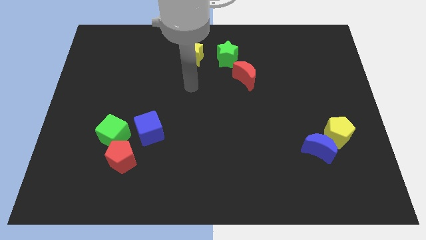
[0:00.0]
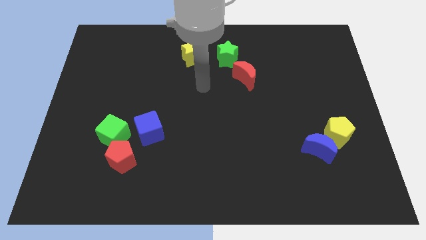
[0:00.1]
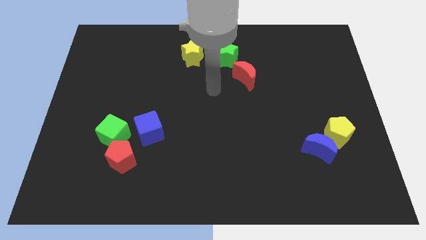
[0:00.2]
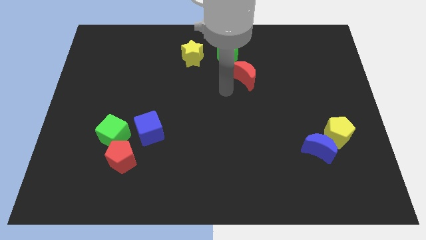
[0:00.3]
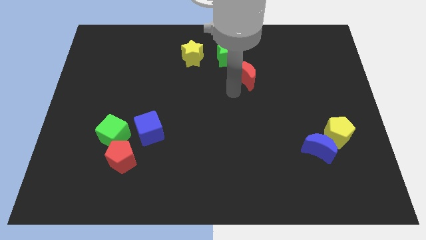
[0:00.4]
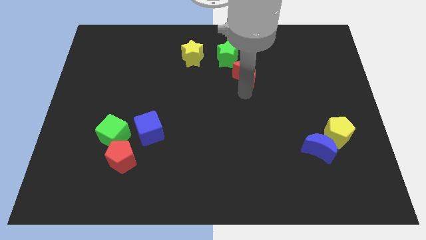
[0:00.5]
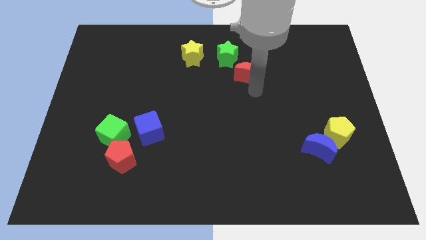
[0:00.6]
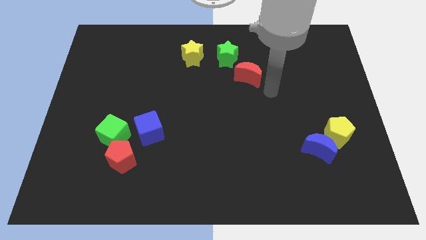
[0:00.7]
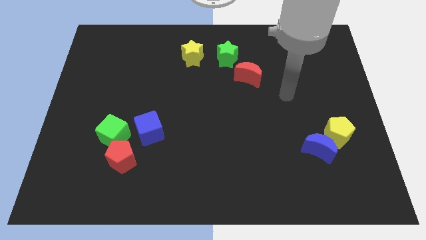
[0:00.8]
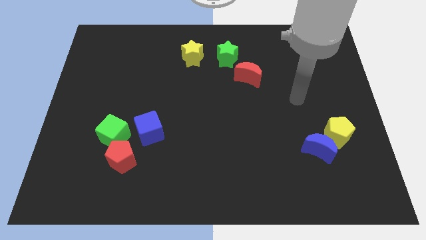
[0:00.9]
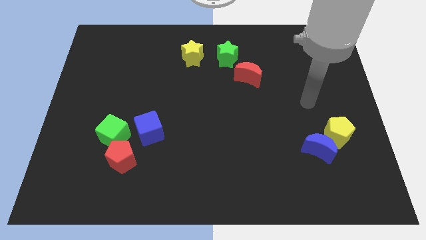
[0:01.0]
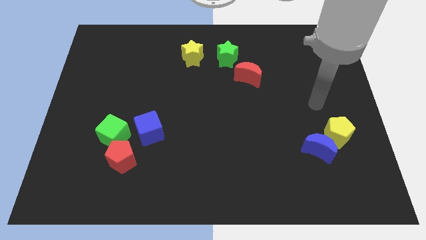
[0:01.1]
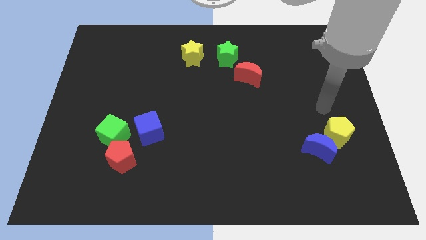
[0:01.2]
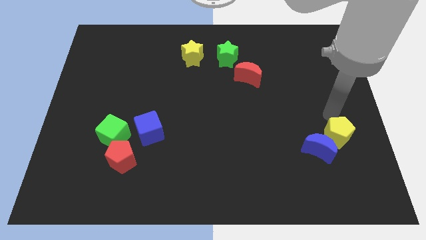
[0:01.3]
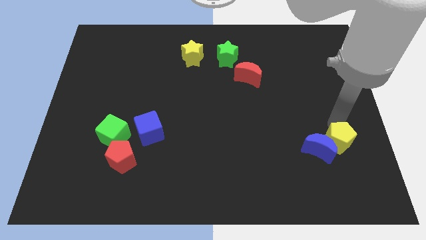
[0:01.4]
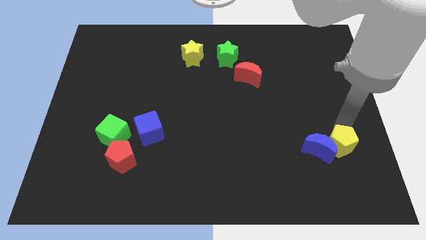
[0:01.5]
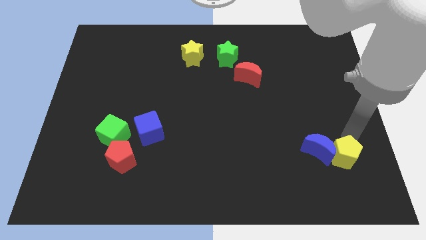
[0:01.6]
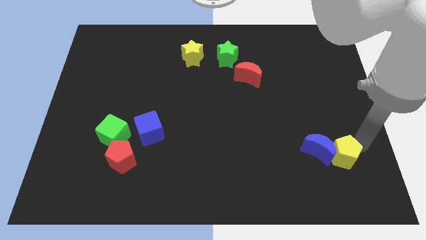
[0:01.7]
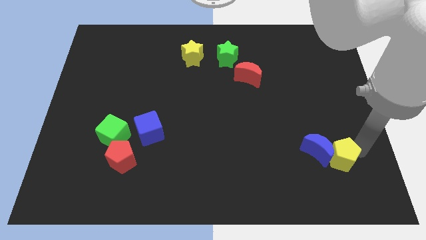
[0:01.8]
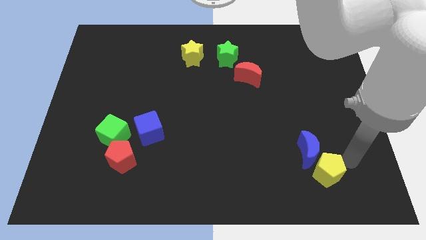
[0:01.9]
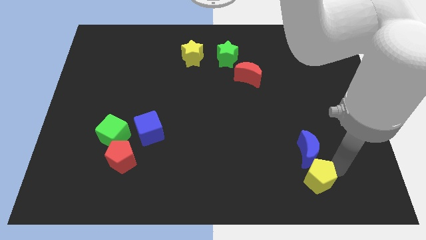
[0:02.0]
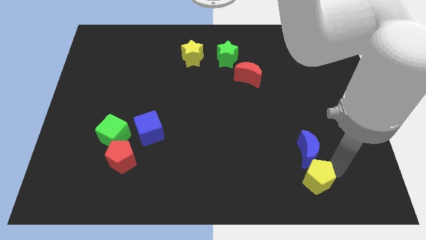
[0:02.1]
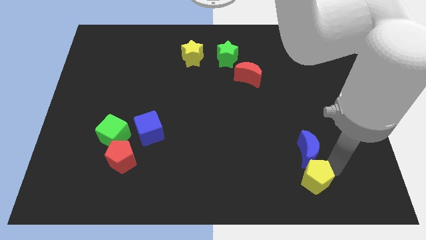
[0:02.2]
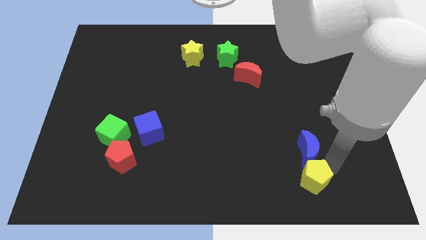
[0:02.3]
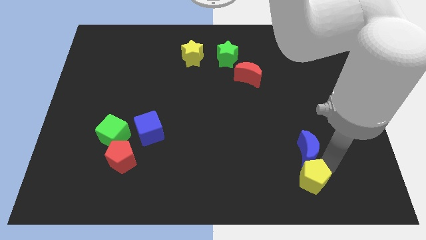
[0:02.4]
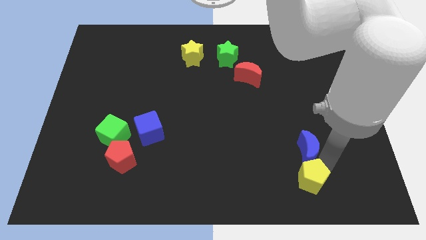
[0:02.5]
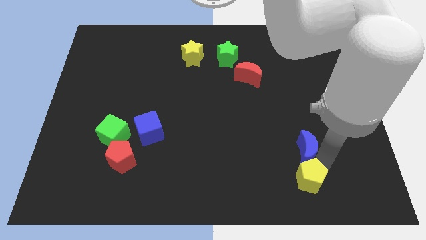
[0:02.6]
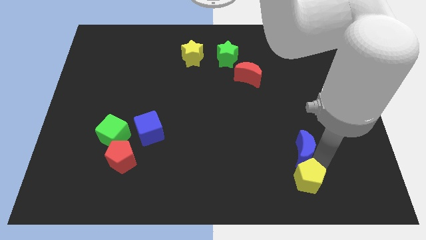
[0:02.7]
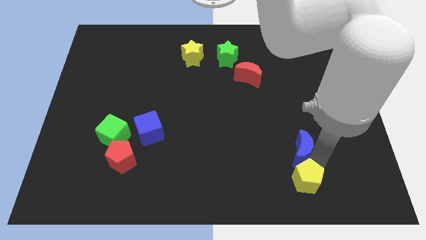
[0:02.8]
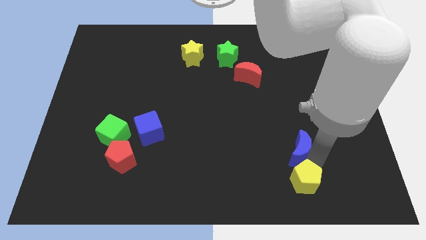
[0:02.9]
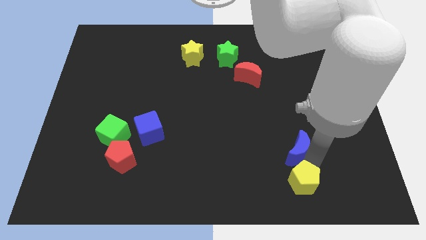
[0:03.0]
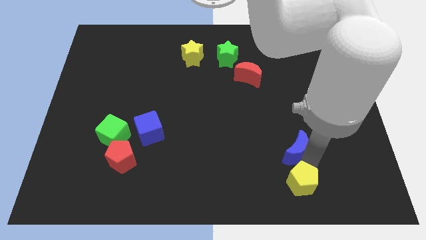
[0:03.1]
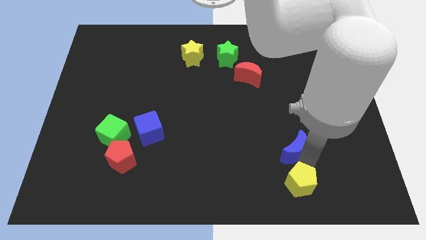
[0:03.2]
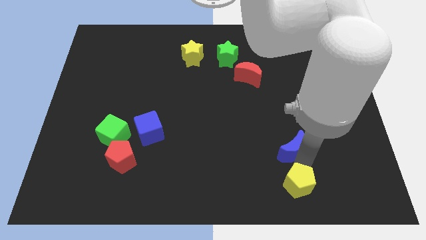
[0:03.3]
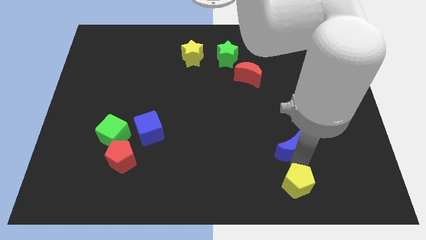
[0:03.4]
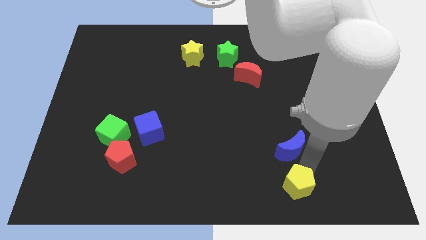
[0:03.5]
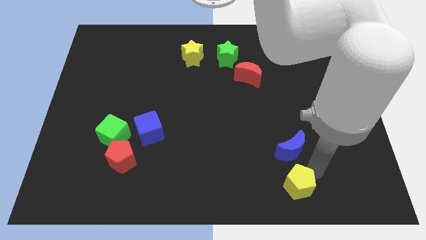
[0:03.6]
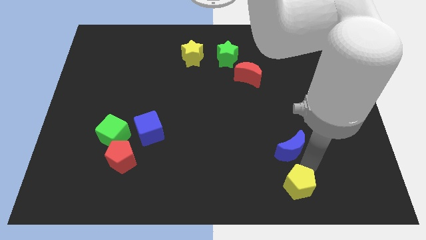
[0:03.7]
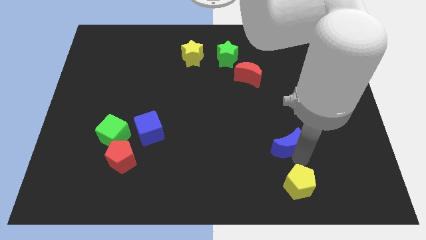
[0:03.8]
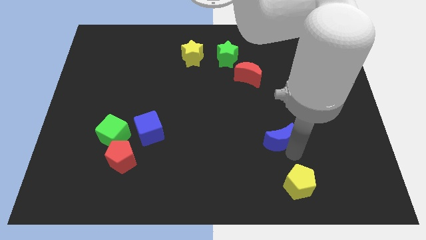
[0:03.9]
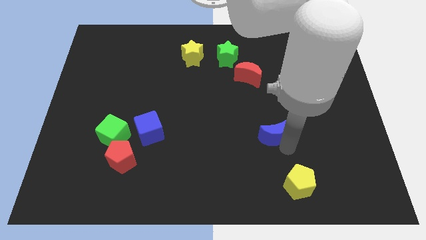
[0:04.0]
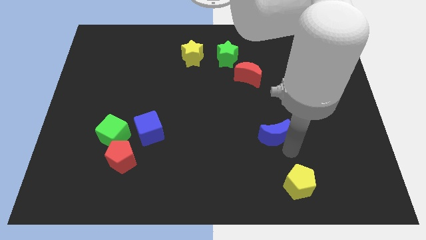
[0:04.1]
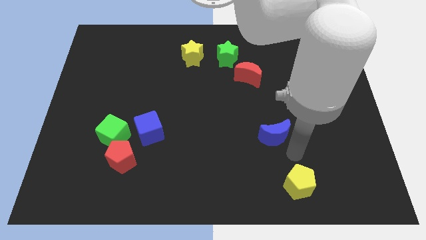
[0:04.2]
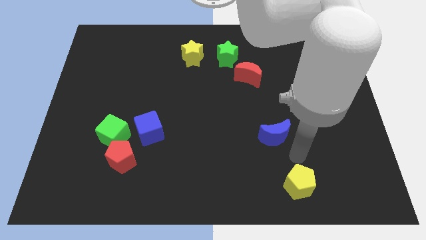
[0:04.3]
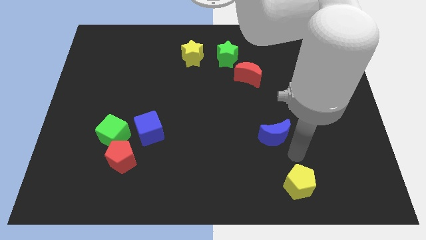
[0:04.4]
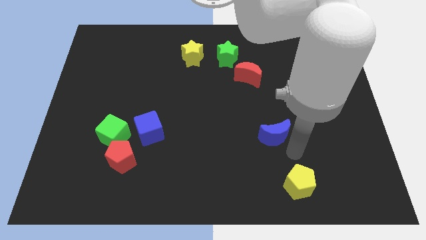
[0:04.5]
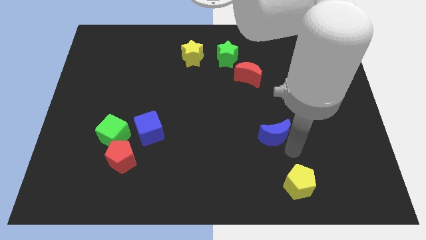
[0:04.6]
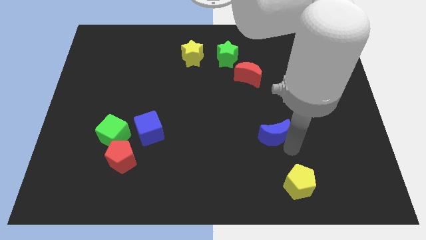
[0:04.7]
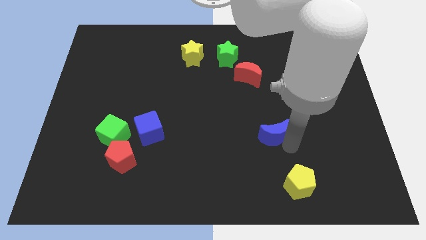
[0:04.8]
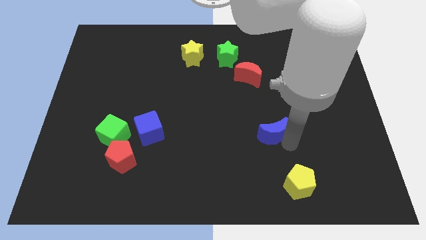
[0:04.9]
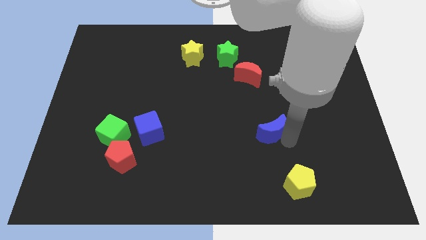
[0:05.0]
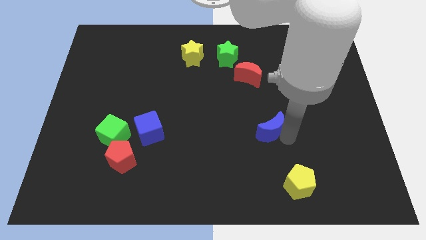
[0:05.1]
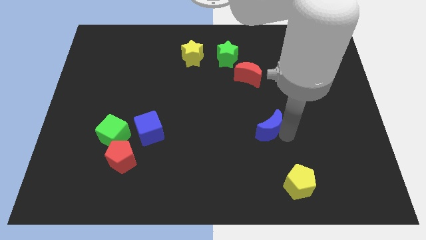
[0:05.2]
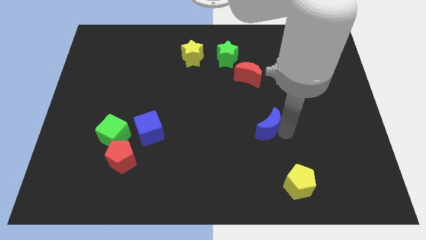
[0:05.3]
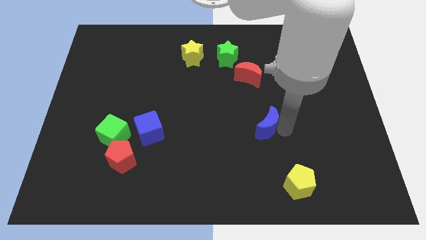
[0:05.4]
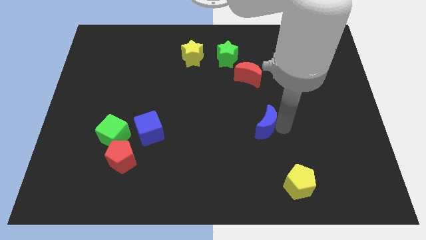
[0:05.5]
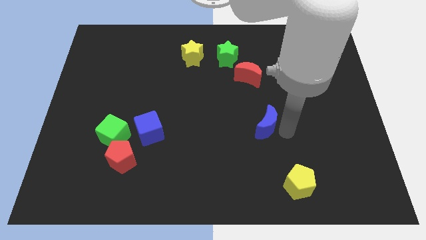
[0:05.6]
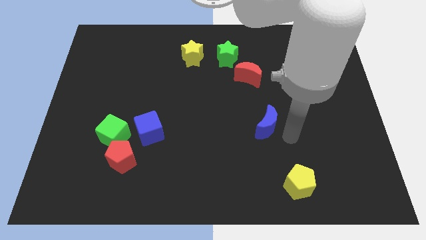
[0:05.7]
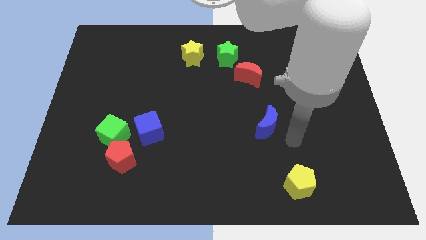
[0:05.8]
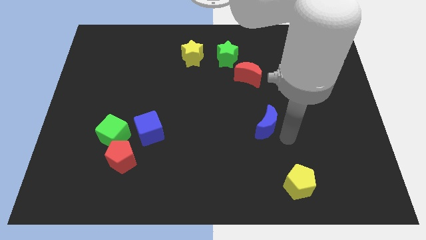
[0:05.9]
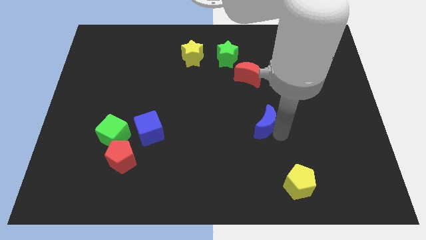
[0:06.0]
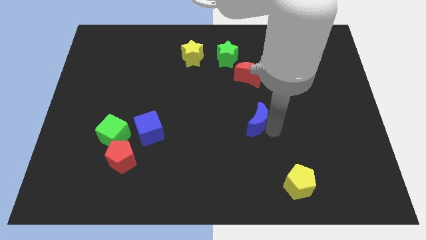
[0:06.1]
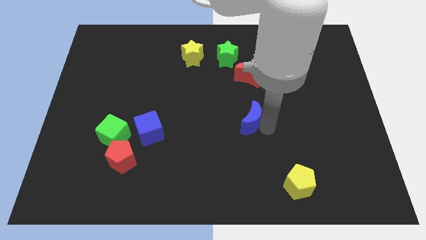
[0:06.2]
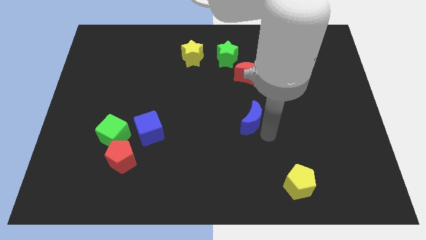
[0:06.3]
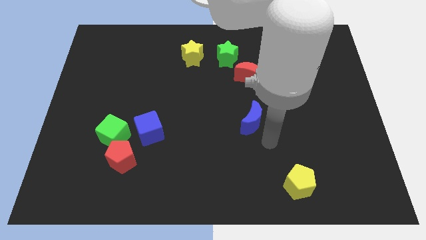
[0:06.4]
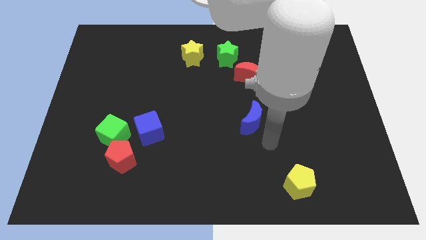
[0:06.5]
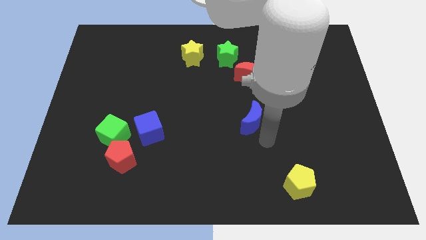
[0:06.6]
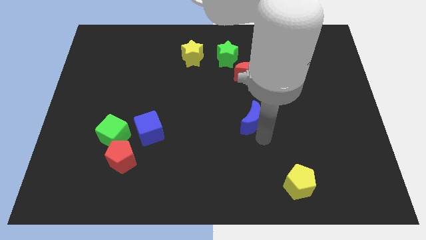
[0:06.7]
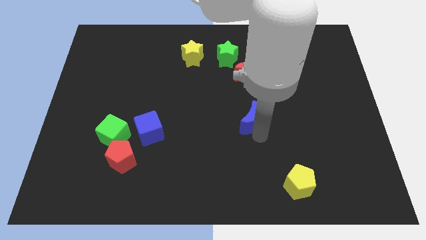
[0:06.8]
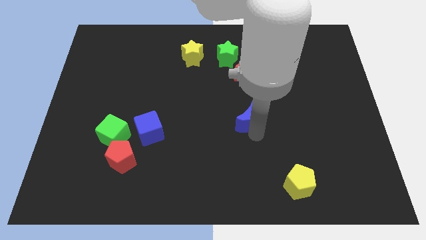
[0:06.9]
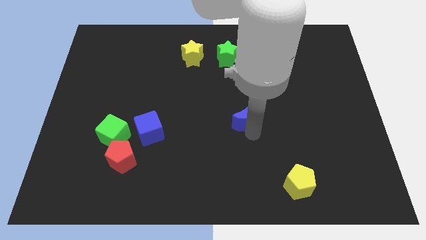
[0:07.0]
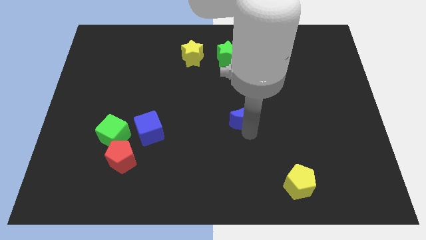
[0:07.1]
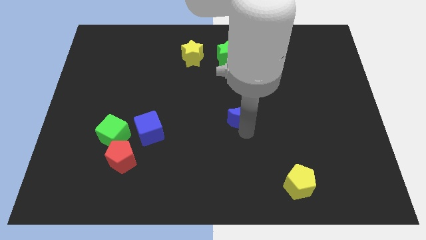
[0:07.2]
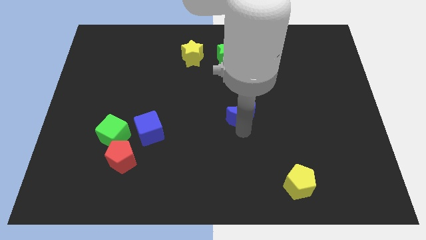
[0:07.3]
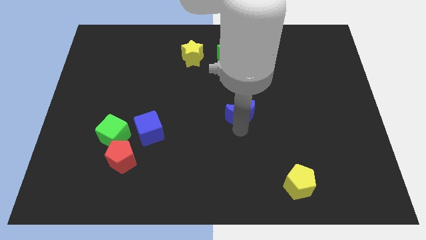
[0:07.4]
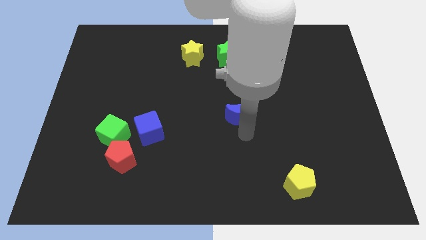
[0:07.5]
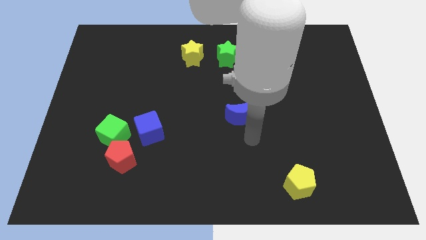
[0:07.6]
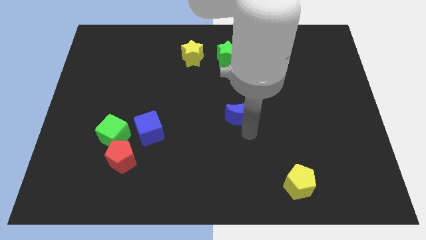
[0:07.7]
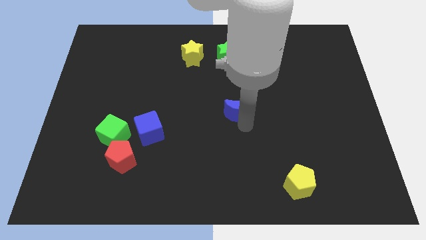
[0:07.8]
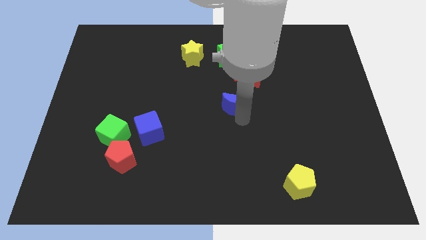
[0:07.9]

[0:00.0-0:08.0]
slide the blue moon to the bottom left side of the red moon
